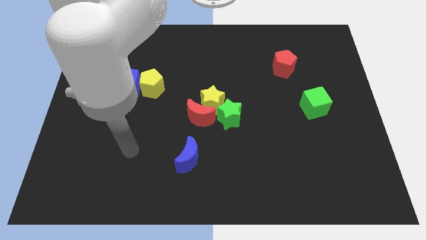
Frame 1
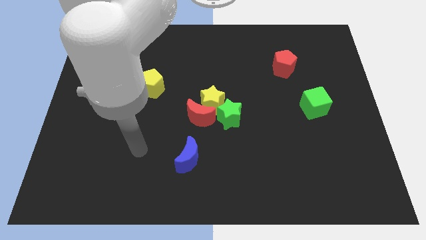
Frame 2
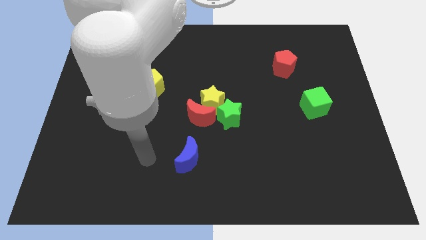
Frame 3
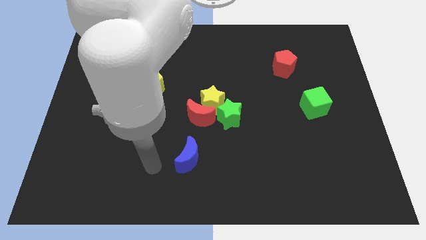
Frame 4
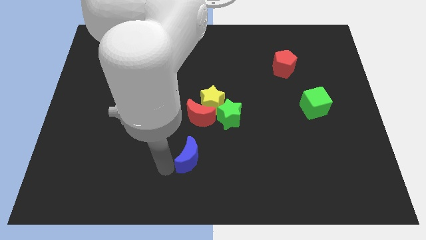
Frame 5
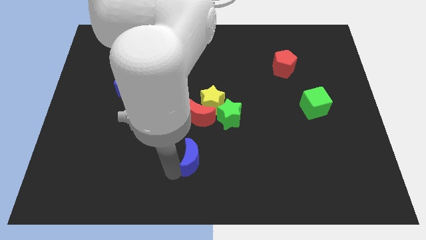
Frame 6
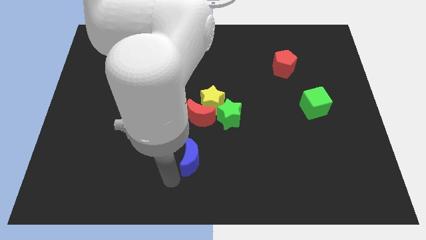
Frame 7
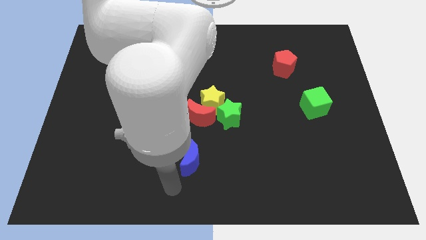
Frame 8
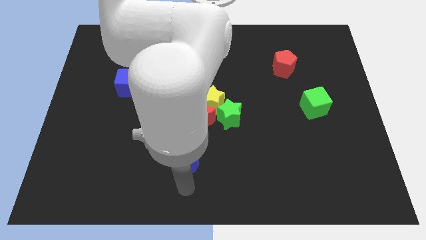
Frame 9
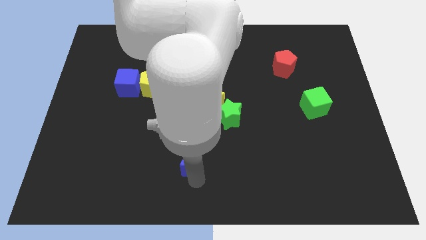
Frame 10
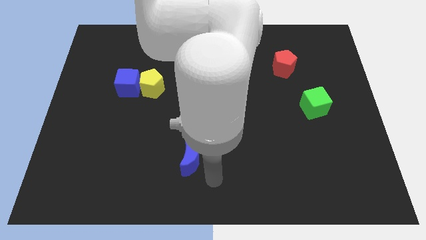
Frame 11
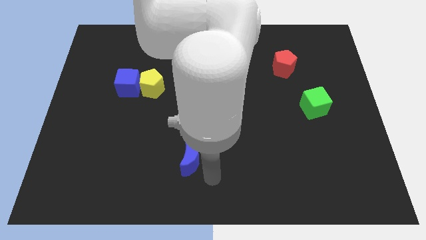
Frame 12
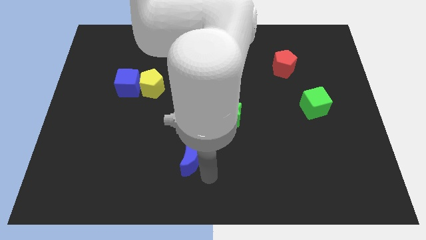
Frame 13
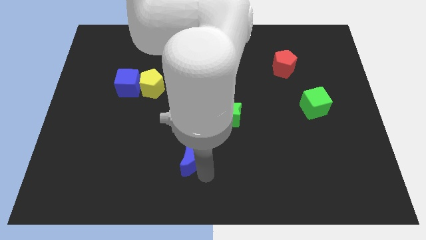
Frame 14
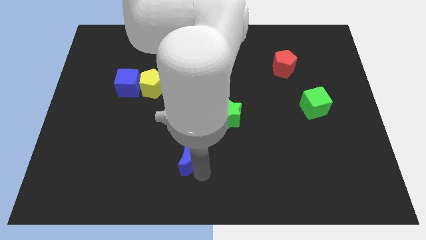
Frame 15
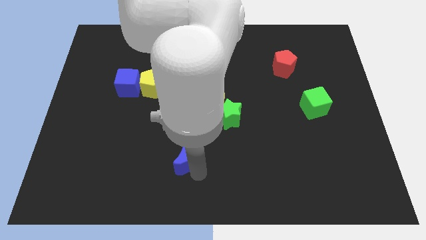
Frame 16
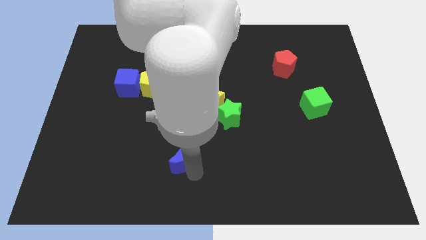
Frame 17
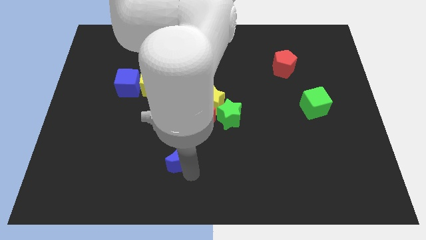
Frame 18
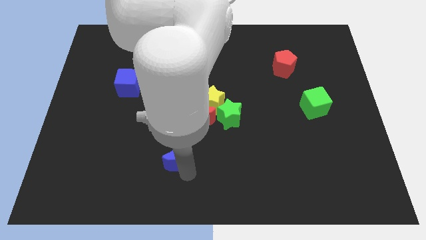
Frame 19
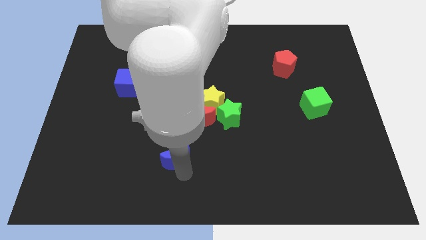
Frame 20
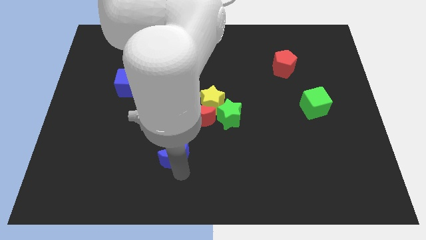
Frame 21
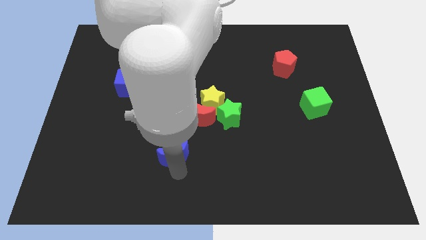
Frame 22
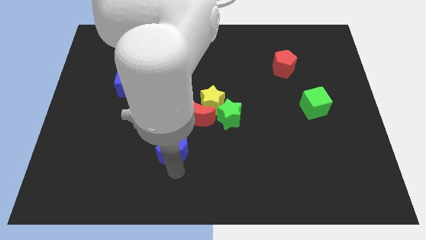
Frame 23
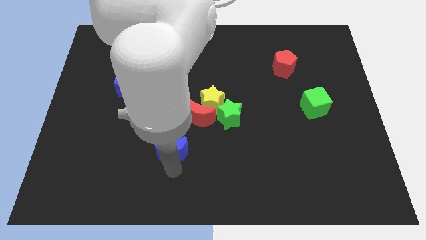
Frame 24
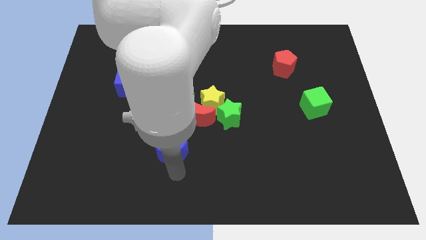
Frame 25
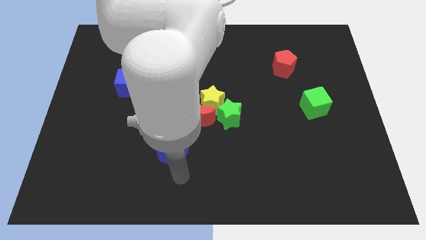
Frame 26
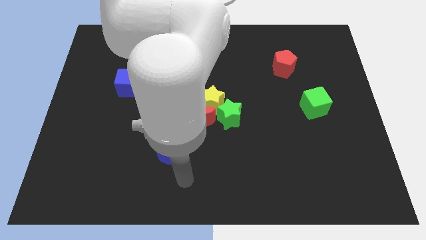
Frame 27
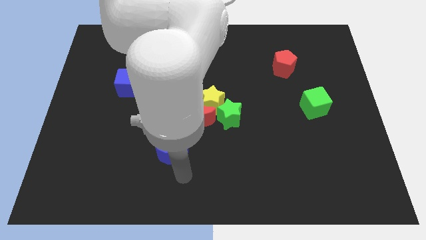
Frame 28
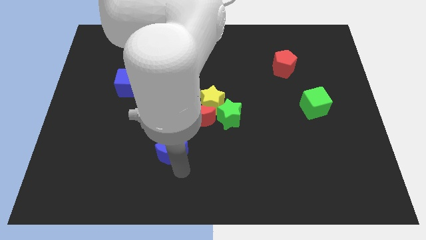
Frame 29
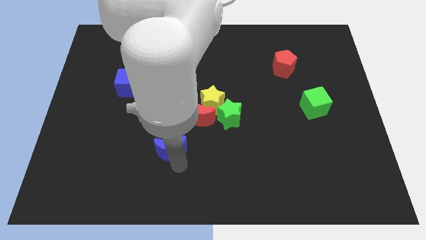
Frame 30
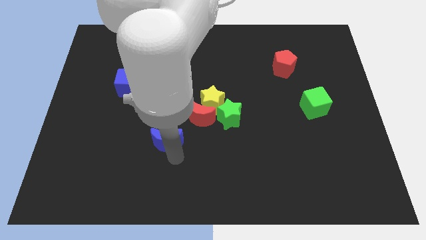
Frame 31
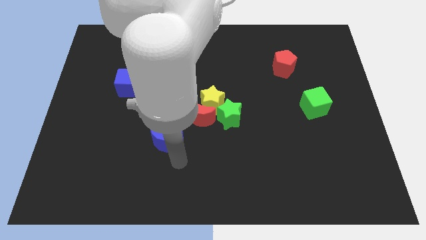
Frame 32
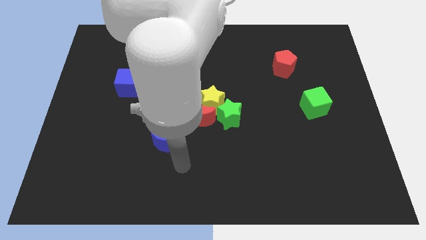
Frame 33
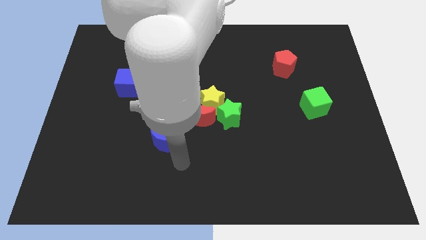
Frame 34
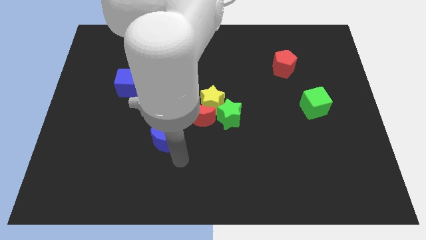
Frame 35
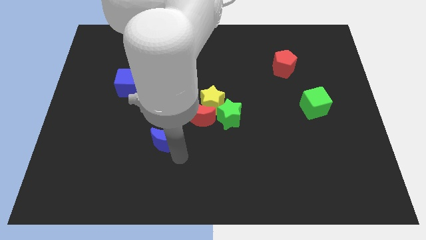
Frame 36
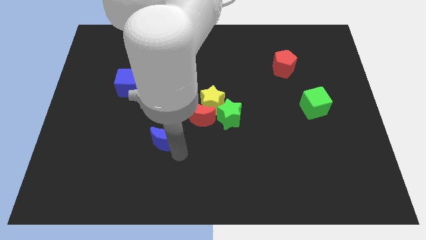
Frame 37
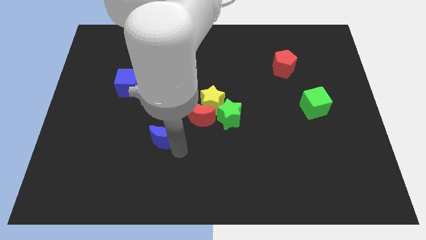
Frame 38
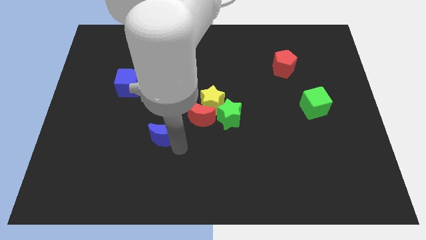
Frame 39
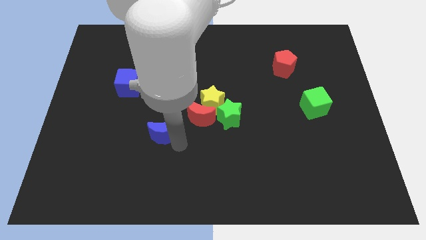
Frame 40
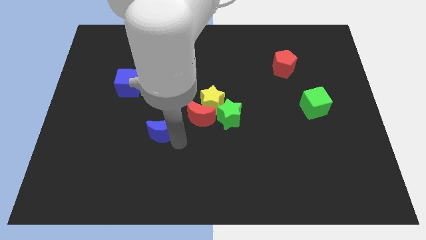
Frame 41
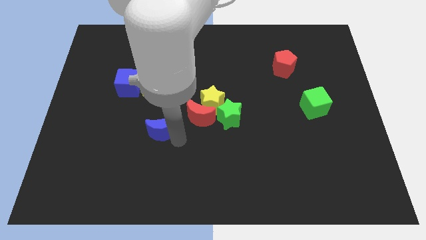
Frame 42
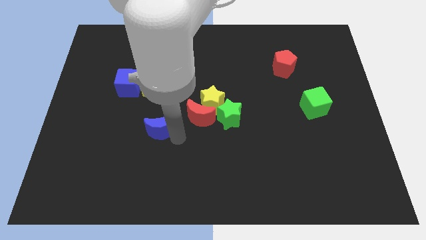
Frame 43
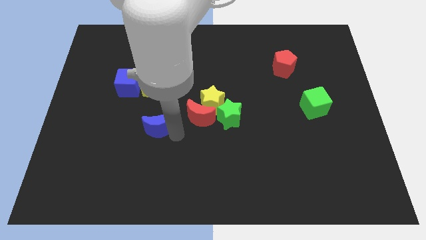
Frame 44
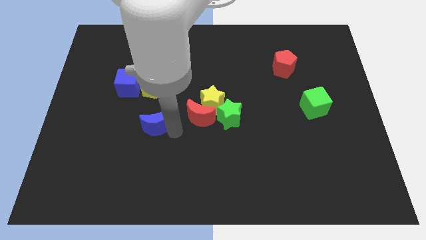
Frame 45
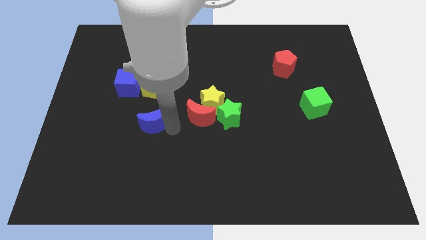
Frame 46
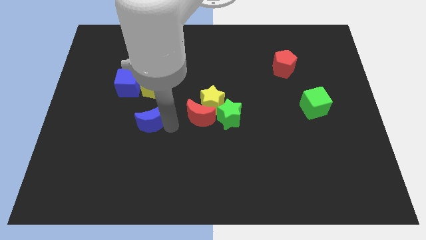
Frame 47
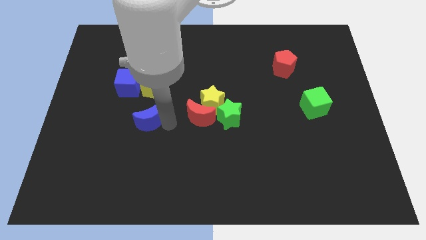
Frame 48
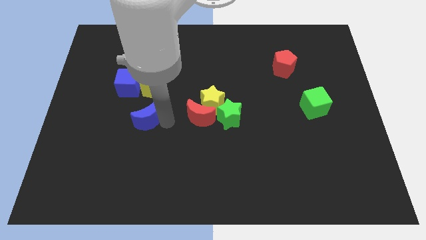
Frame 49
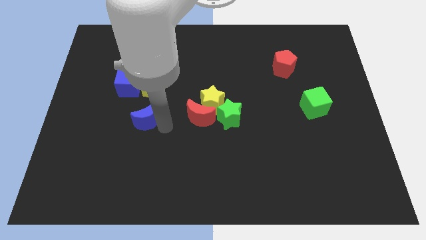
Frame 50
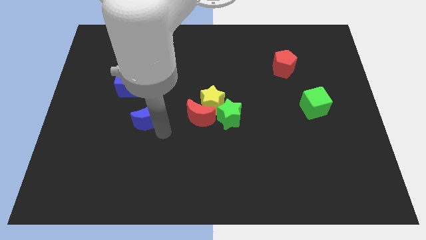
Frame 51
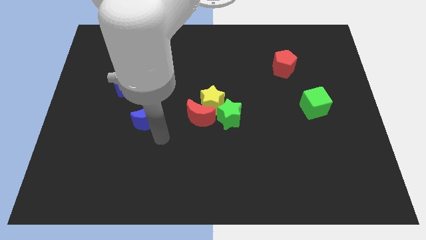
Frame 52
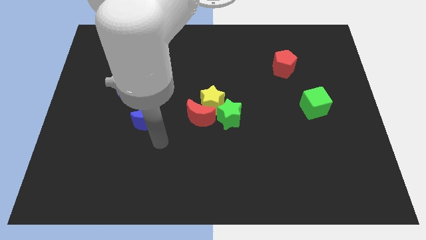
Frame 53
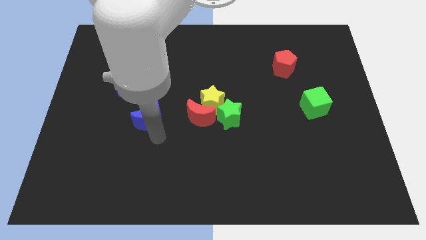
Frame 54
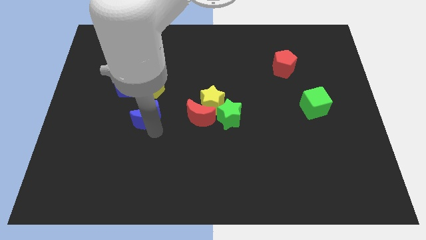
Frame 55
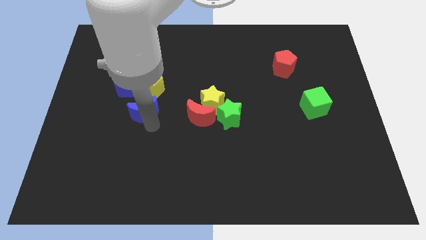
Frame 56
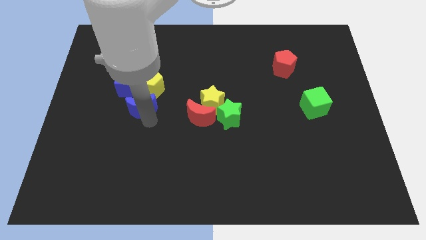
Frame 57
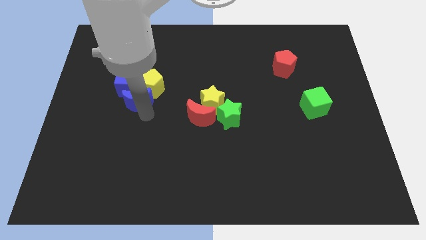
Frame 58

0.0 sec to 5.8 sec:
push the blue moon next to the blue cube

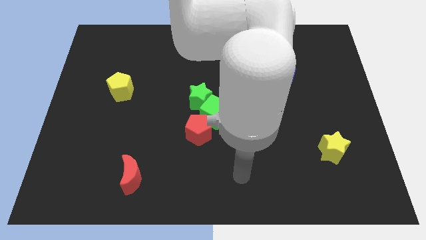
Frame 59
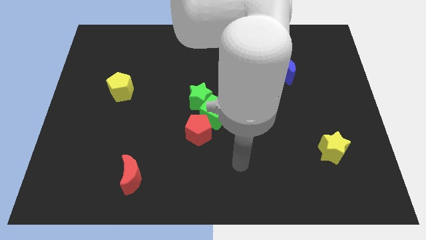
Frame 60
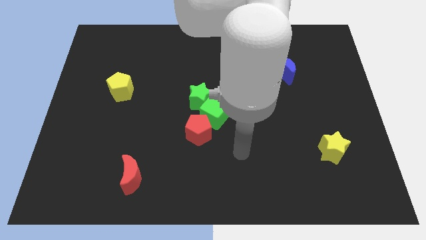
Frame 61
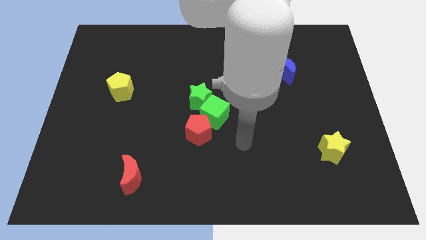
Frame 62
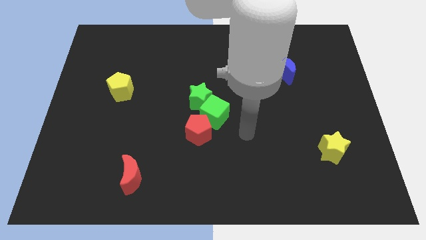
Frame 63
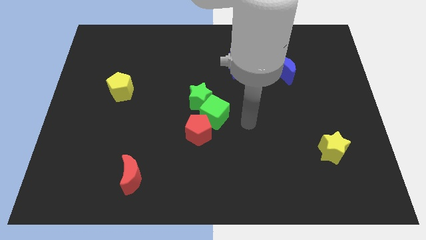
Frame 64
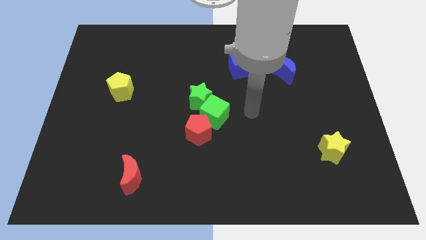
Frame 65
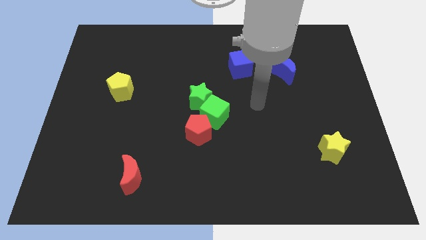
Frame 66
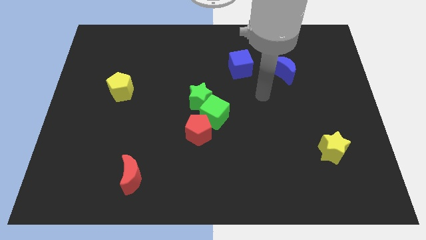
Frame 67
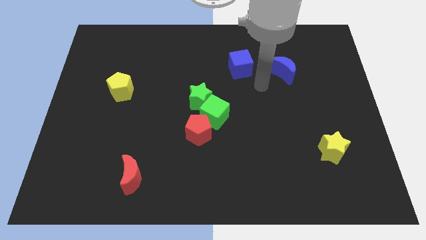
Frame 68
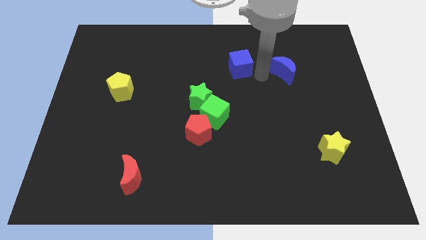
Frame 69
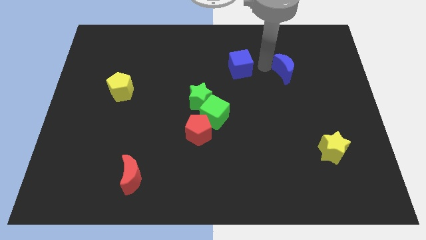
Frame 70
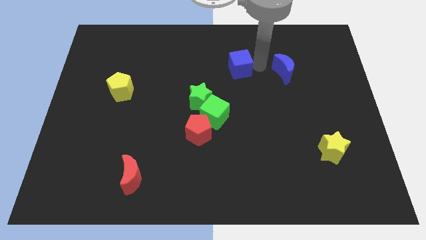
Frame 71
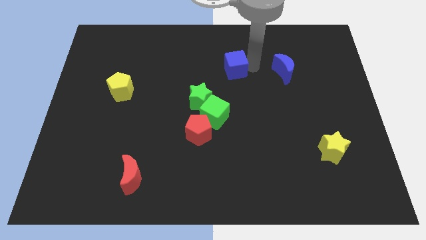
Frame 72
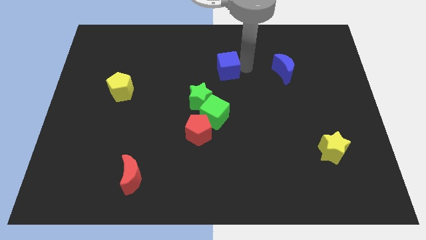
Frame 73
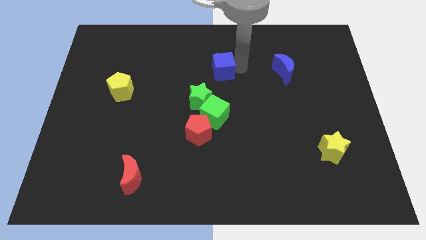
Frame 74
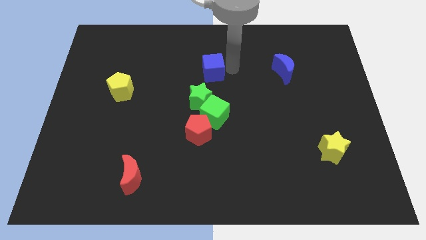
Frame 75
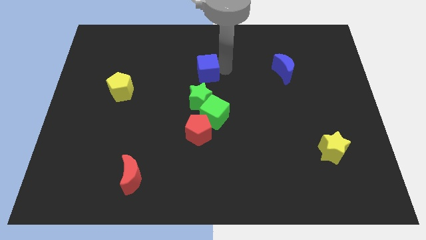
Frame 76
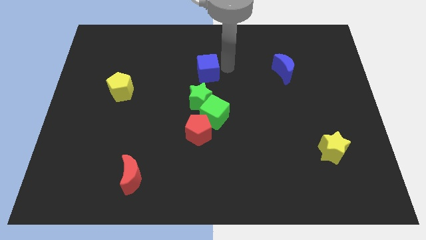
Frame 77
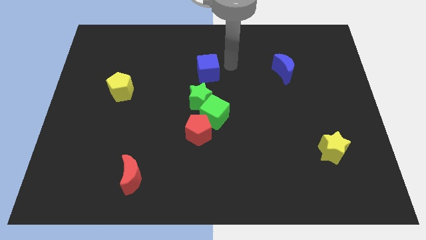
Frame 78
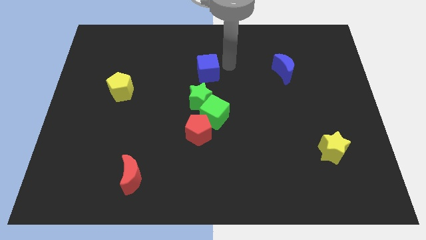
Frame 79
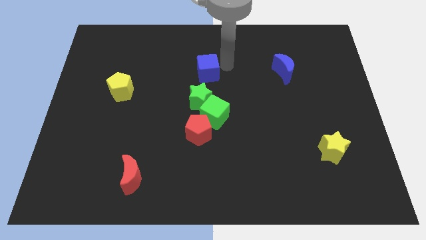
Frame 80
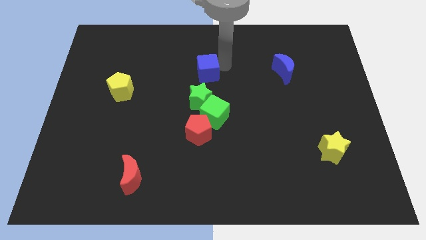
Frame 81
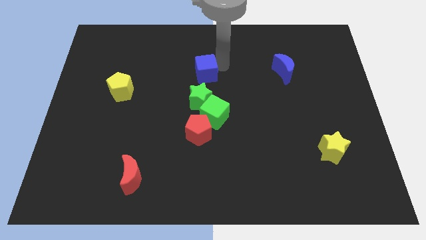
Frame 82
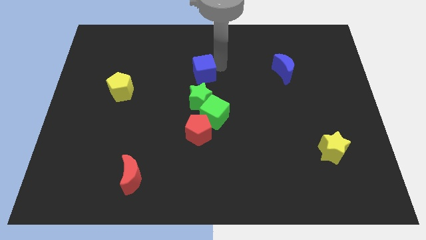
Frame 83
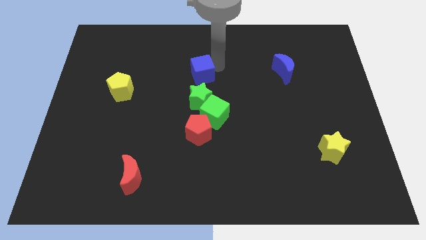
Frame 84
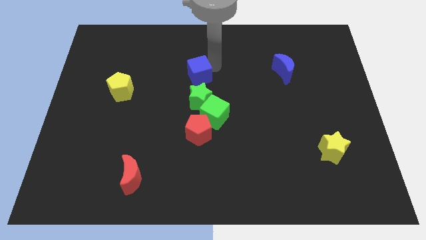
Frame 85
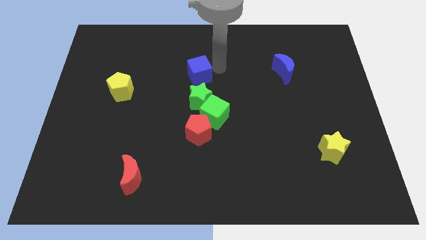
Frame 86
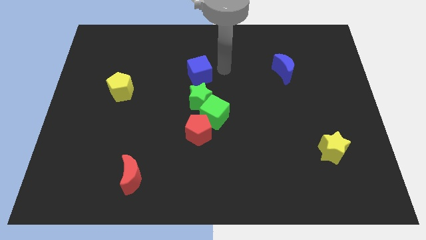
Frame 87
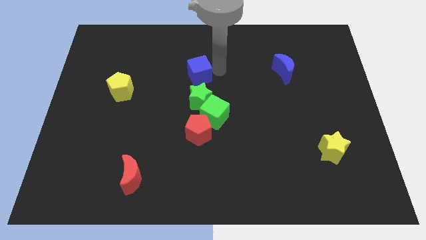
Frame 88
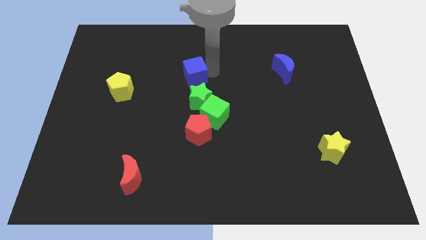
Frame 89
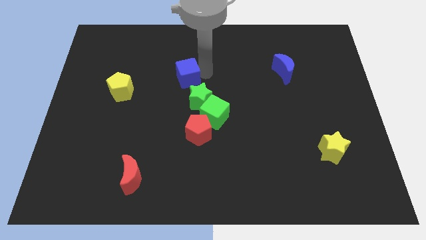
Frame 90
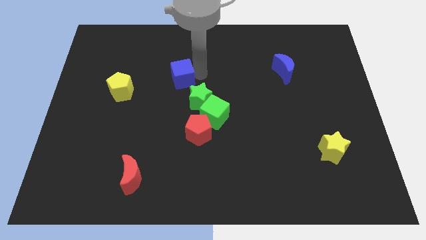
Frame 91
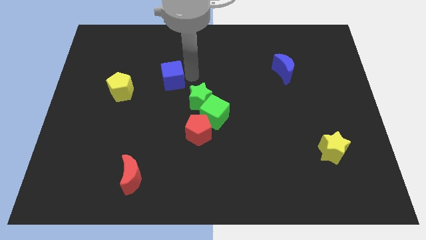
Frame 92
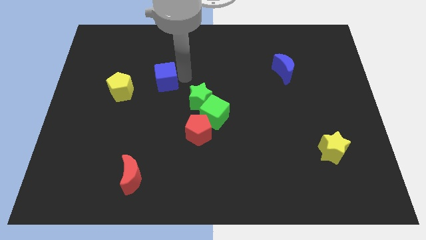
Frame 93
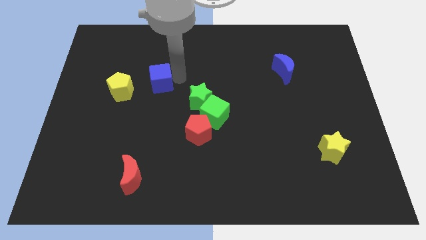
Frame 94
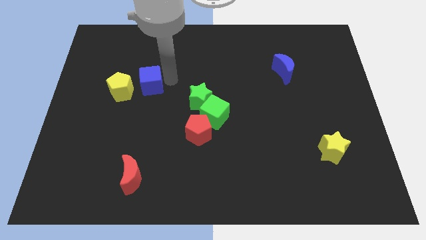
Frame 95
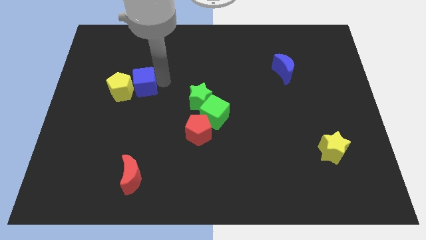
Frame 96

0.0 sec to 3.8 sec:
move the blue cube towards the yellow pentagon
